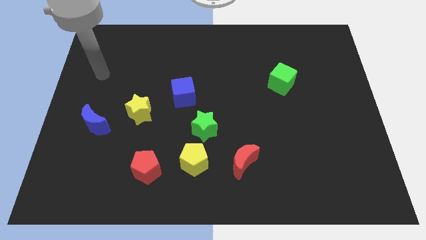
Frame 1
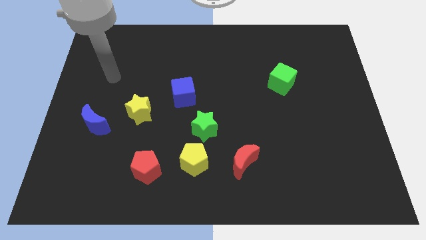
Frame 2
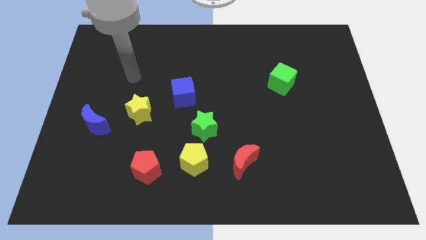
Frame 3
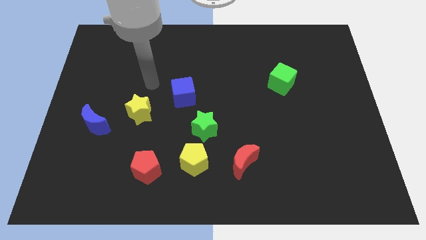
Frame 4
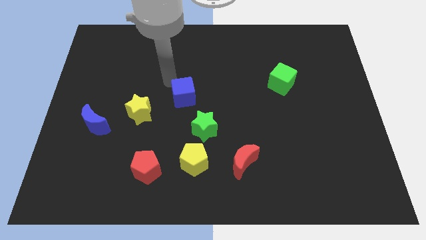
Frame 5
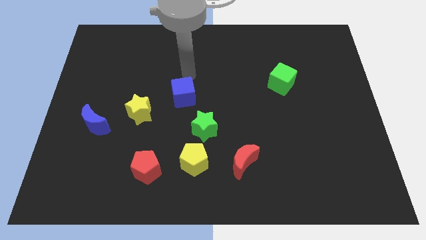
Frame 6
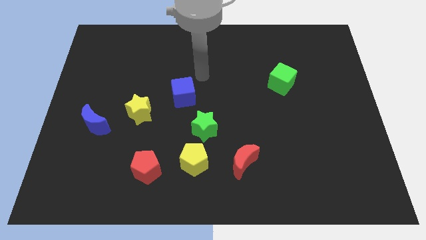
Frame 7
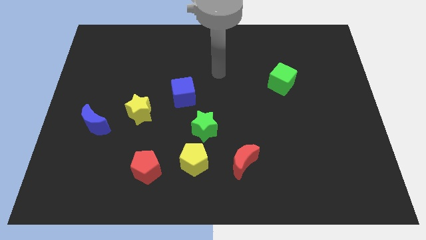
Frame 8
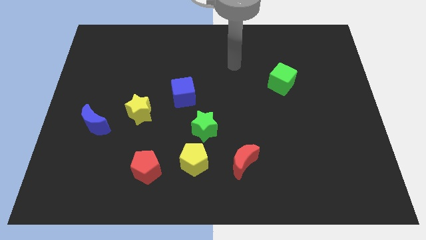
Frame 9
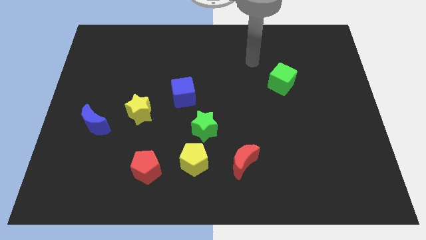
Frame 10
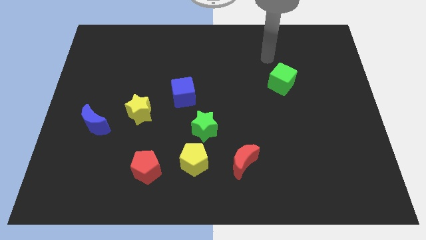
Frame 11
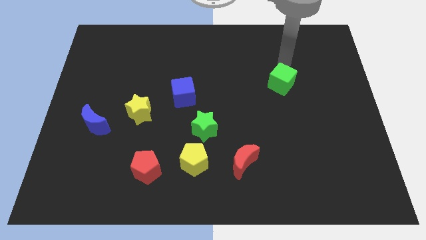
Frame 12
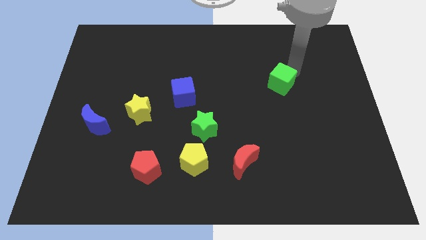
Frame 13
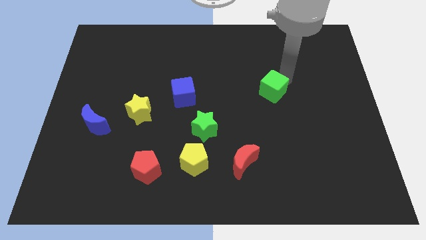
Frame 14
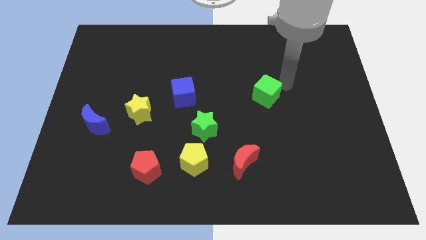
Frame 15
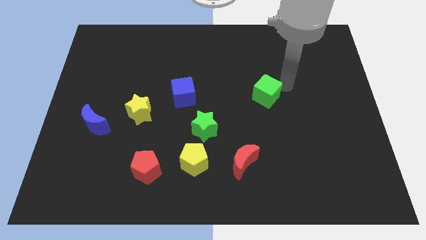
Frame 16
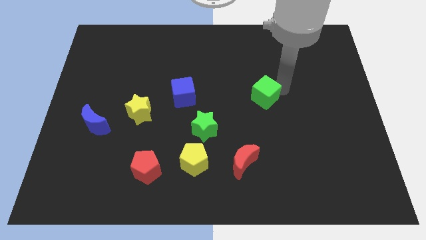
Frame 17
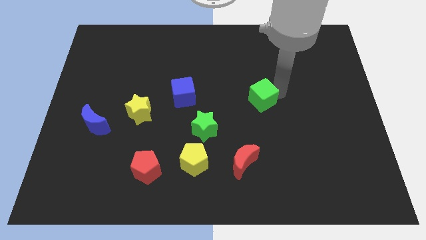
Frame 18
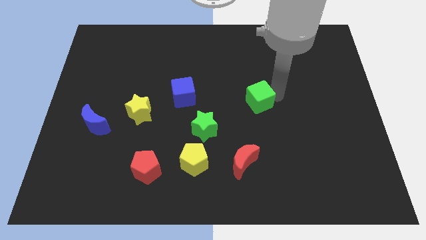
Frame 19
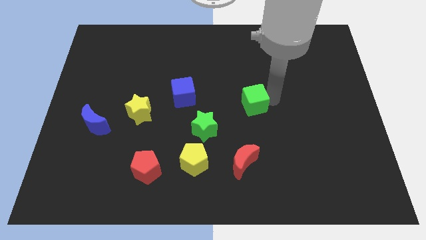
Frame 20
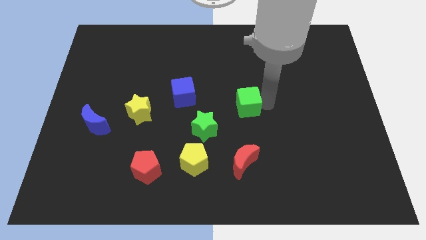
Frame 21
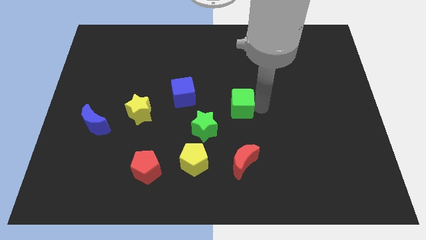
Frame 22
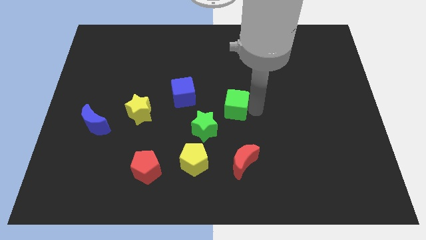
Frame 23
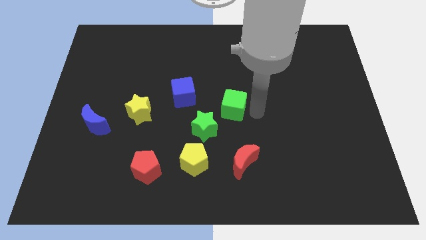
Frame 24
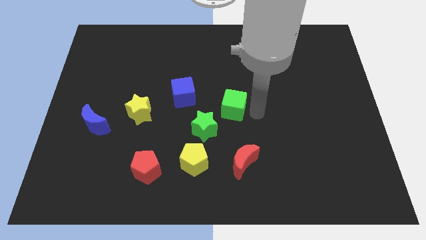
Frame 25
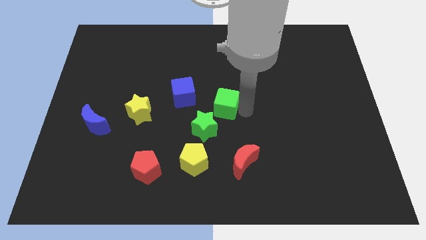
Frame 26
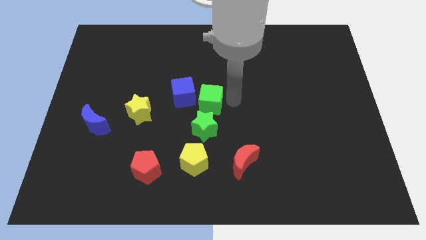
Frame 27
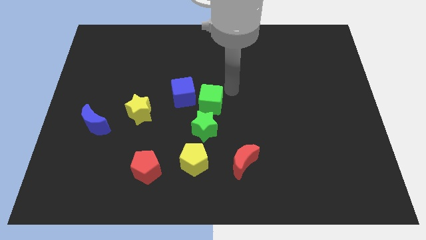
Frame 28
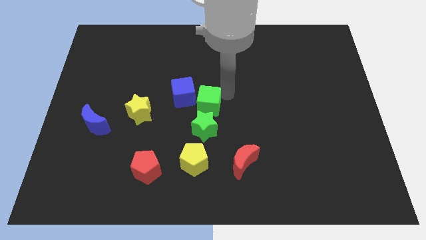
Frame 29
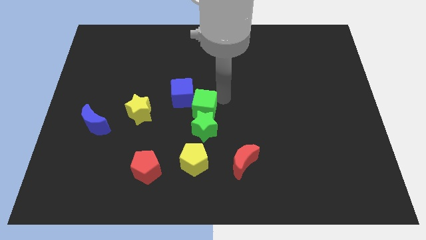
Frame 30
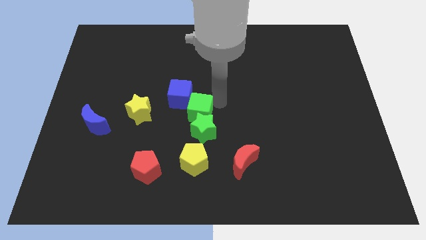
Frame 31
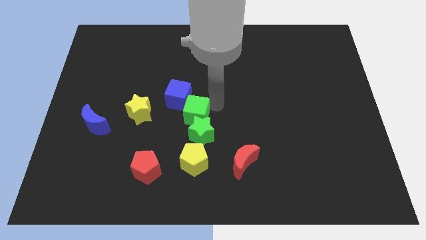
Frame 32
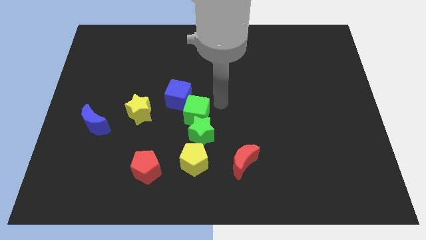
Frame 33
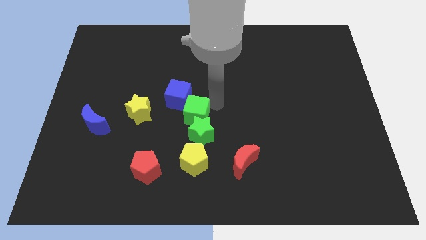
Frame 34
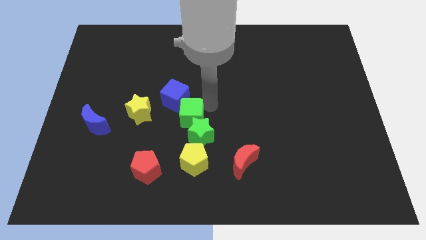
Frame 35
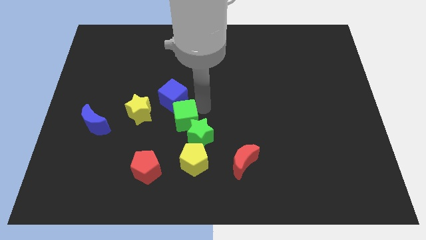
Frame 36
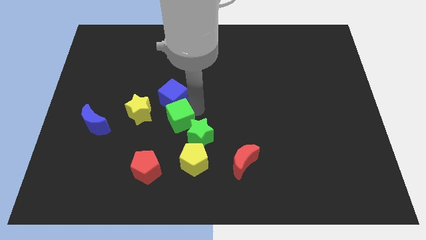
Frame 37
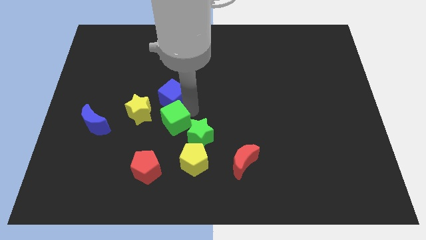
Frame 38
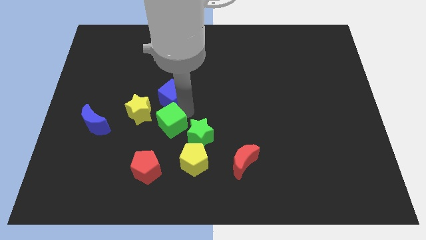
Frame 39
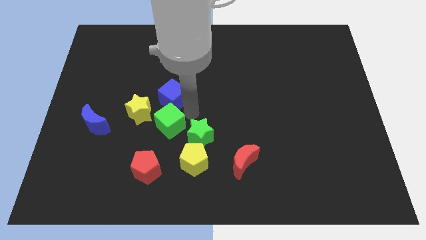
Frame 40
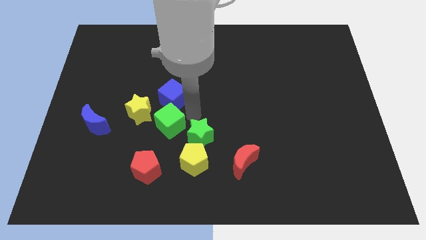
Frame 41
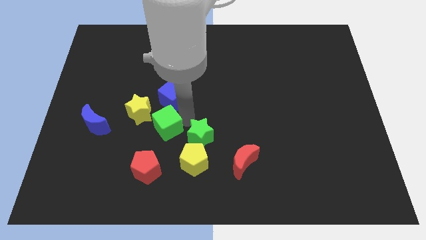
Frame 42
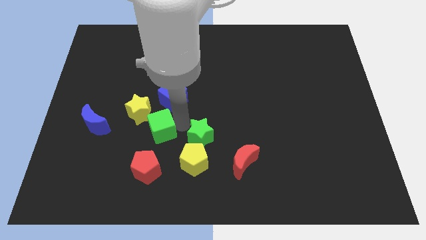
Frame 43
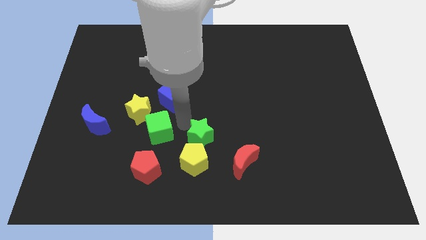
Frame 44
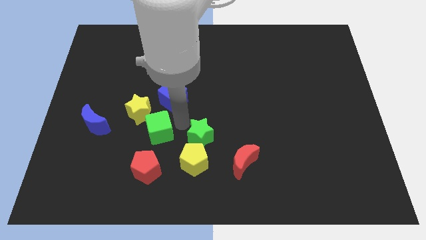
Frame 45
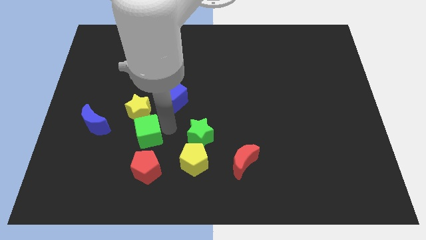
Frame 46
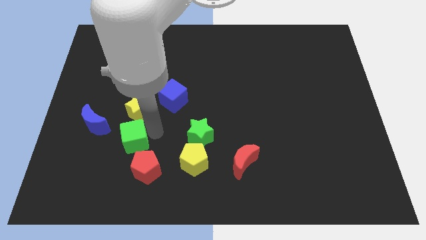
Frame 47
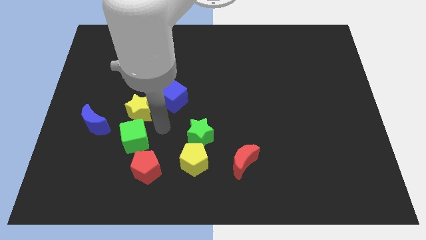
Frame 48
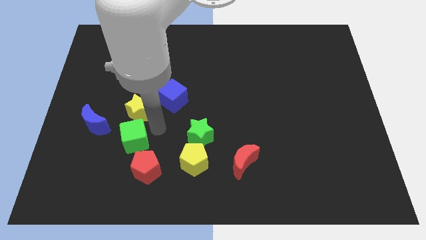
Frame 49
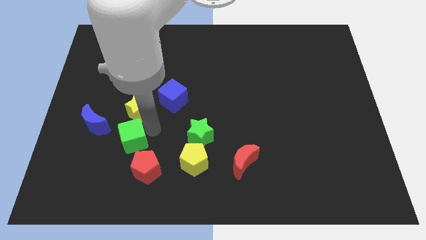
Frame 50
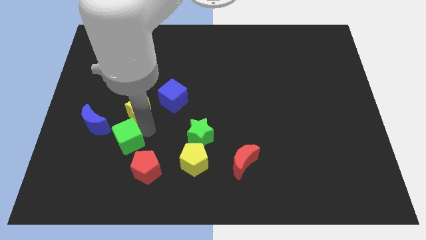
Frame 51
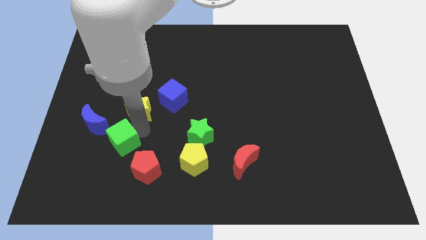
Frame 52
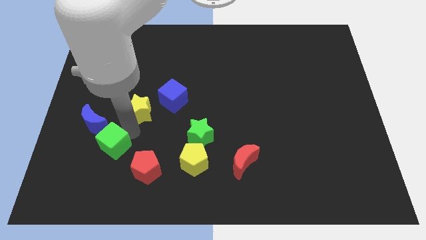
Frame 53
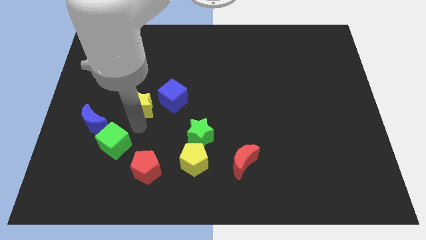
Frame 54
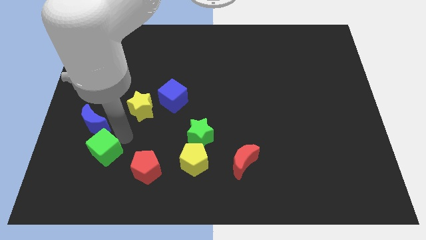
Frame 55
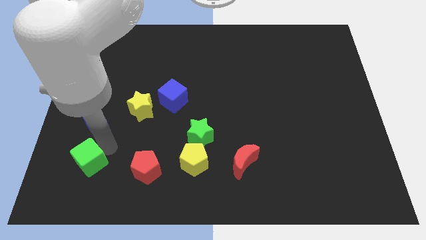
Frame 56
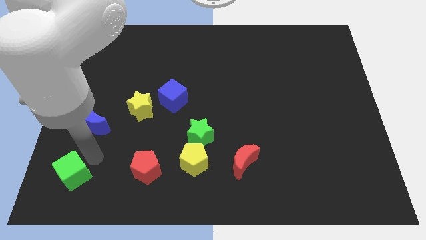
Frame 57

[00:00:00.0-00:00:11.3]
slide the green cube to the bottom left of the board

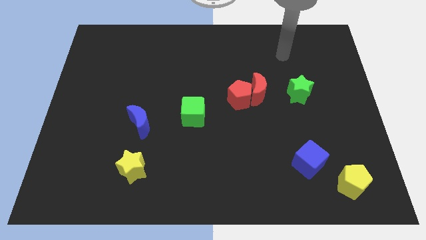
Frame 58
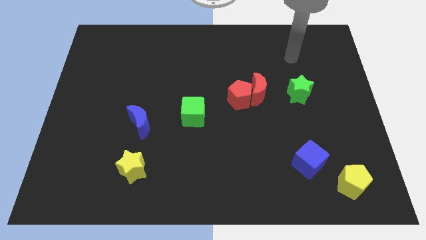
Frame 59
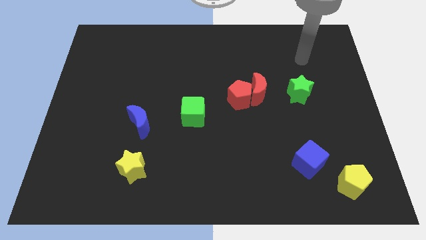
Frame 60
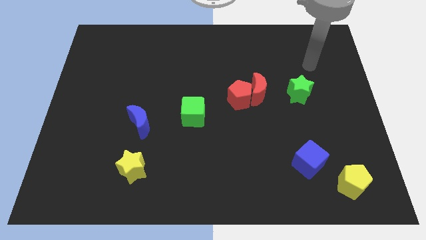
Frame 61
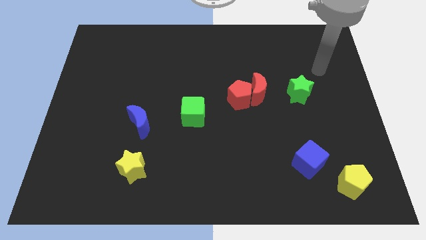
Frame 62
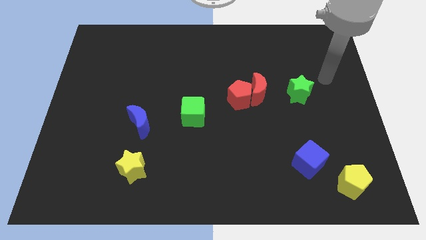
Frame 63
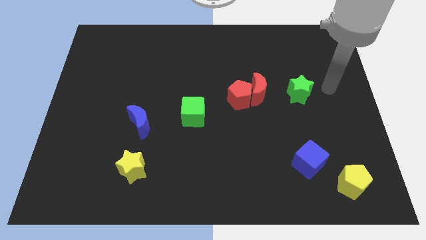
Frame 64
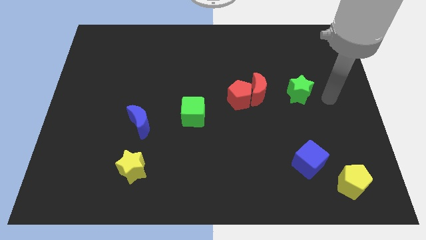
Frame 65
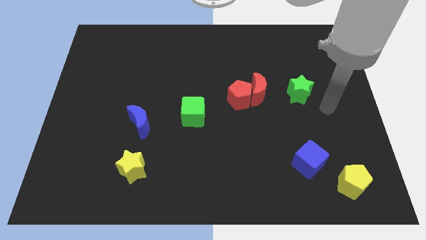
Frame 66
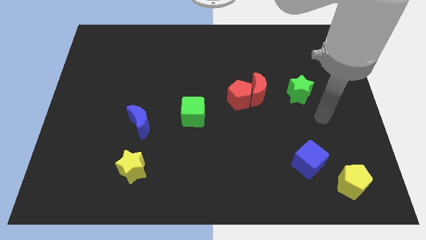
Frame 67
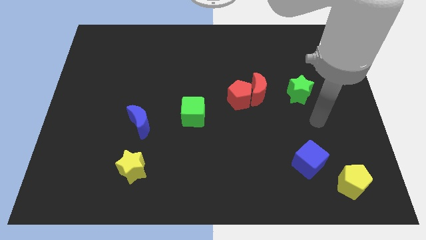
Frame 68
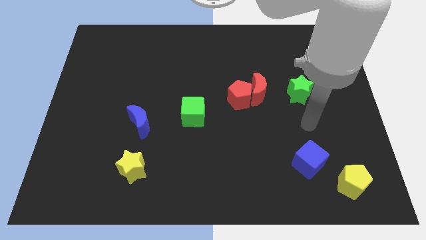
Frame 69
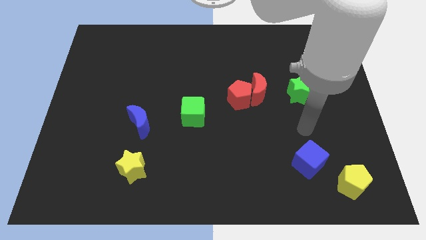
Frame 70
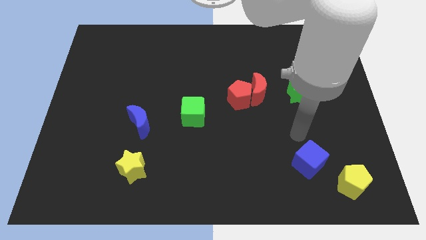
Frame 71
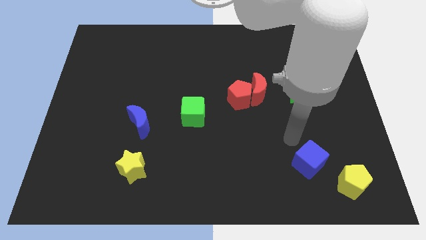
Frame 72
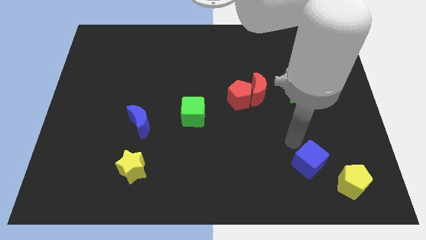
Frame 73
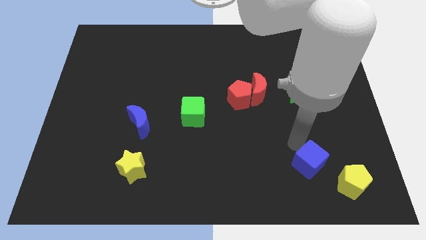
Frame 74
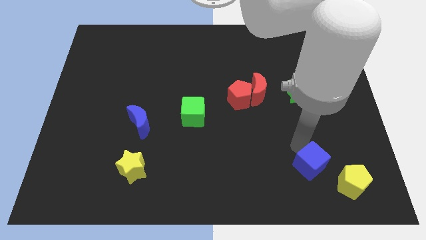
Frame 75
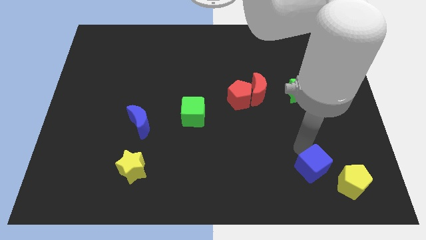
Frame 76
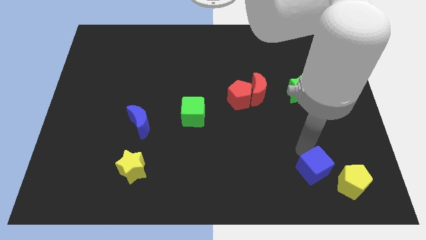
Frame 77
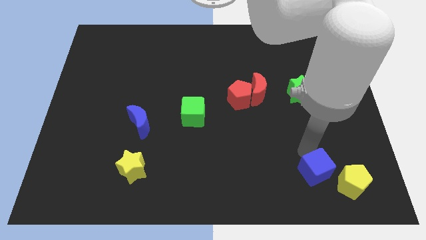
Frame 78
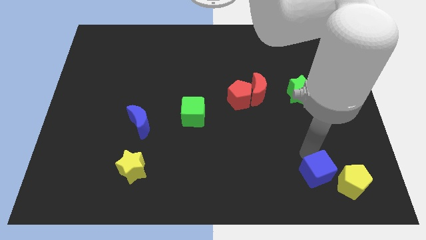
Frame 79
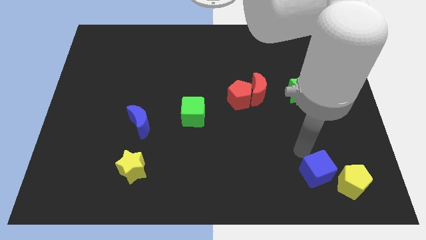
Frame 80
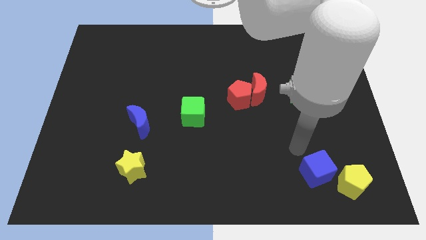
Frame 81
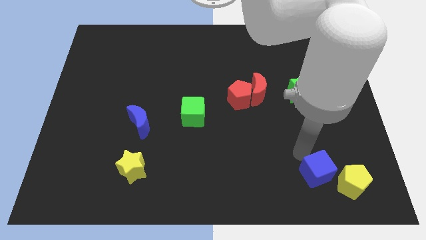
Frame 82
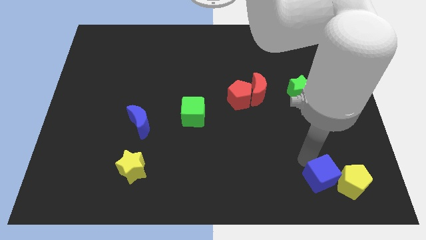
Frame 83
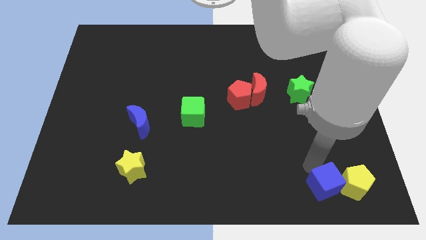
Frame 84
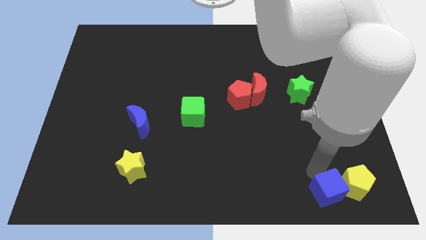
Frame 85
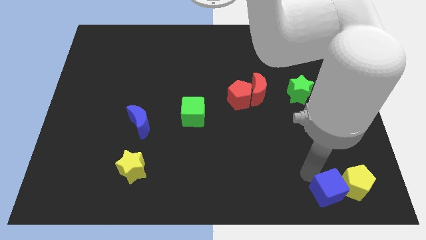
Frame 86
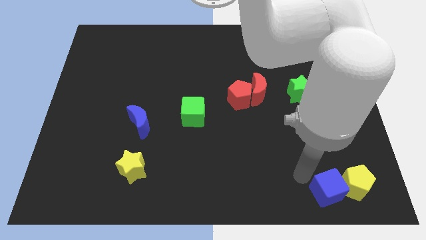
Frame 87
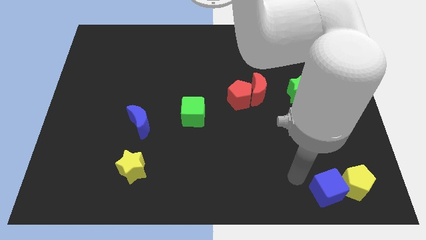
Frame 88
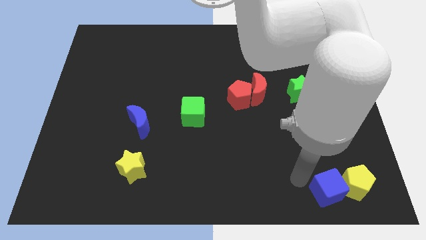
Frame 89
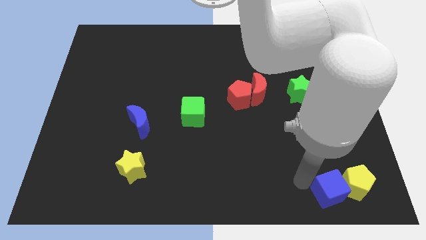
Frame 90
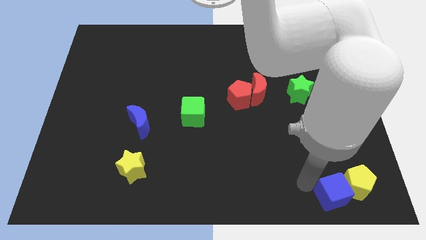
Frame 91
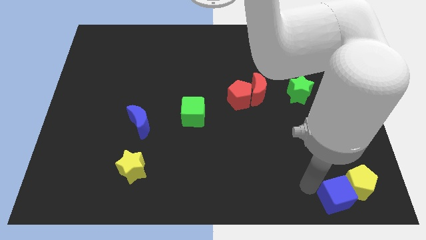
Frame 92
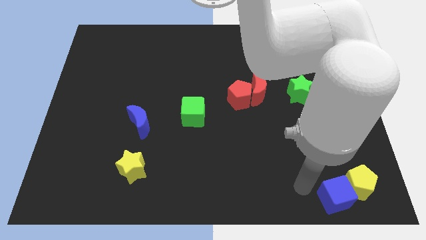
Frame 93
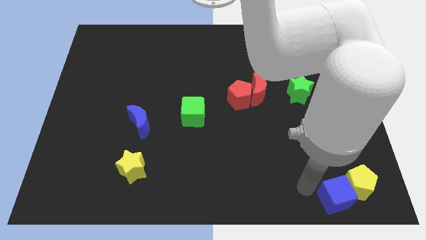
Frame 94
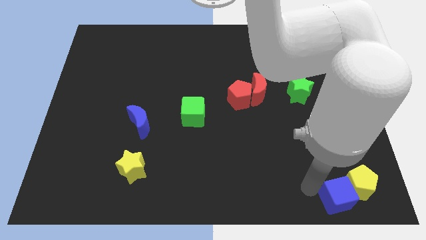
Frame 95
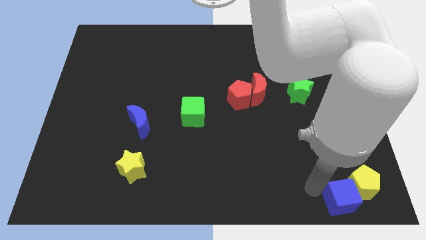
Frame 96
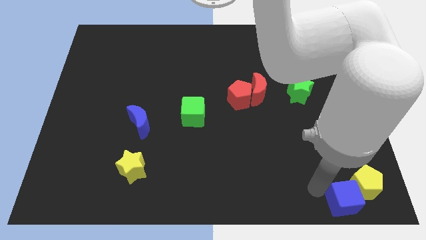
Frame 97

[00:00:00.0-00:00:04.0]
put the blue cube to the lower right corner
